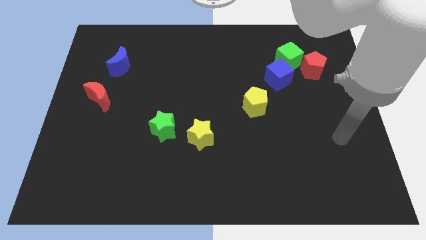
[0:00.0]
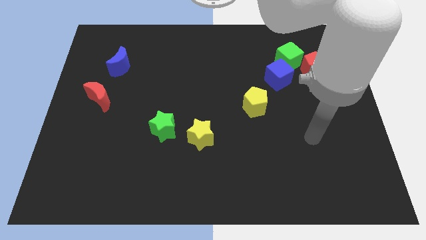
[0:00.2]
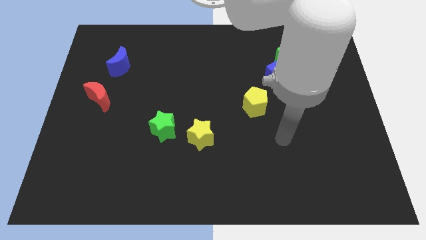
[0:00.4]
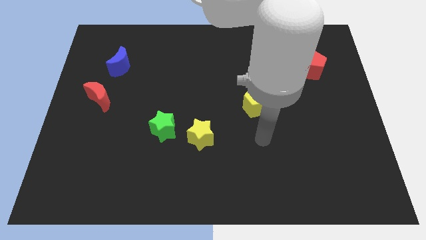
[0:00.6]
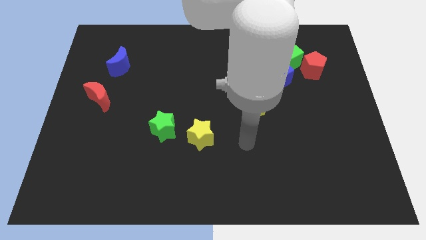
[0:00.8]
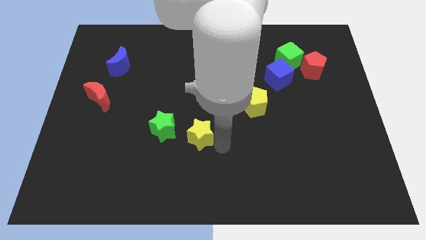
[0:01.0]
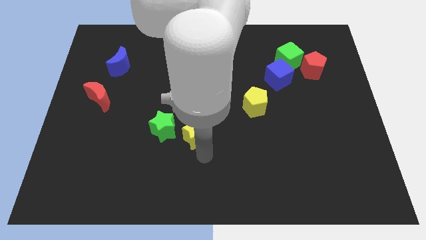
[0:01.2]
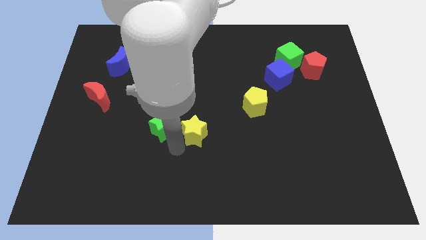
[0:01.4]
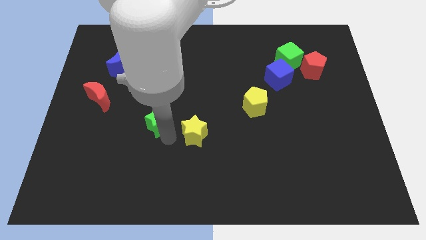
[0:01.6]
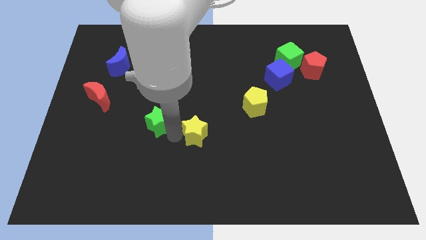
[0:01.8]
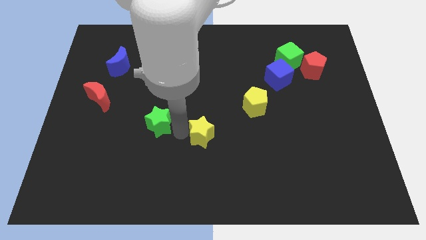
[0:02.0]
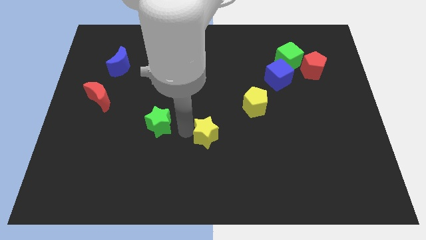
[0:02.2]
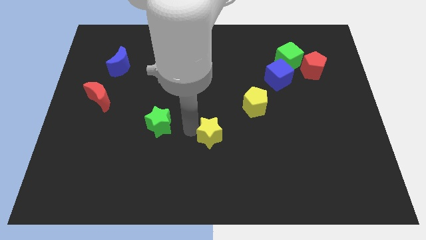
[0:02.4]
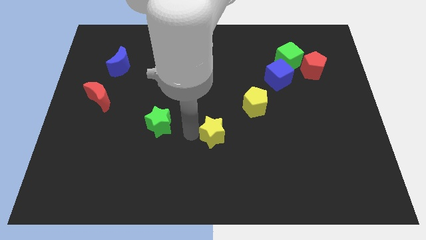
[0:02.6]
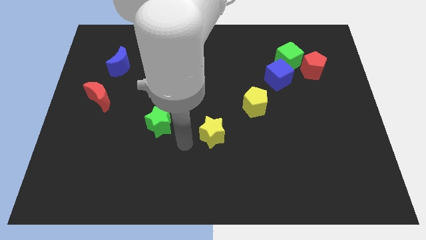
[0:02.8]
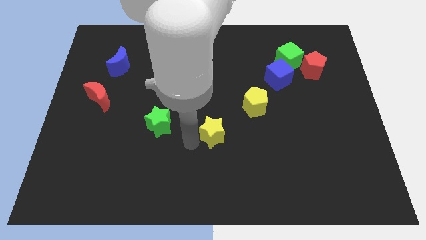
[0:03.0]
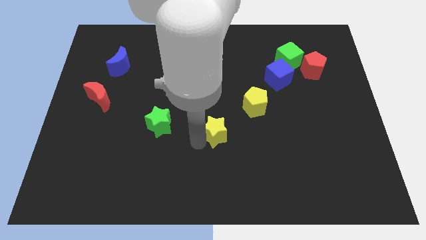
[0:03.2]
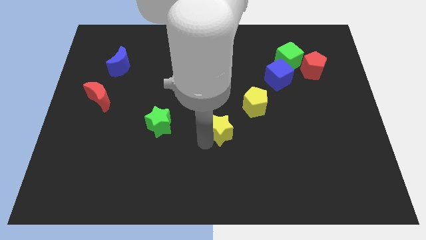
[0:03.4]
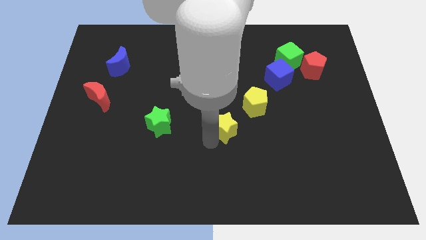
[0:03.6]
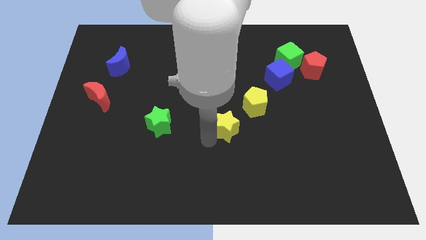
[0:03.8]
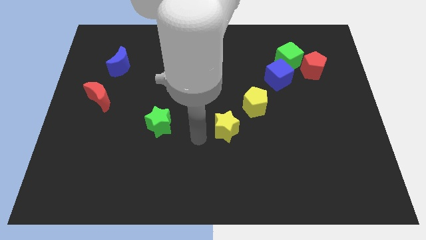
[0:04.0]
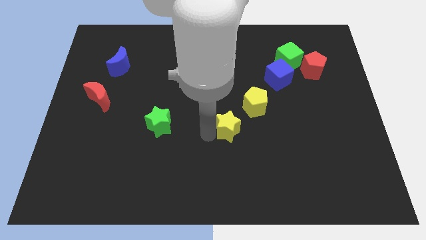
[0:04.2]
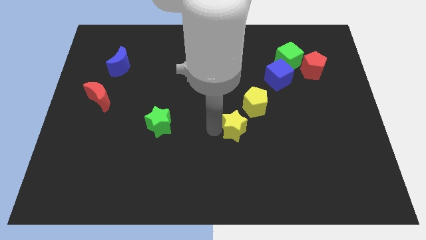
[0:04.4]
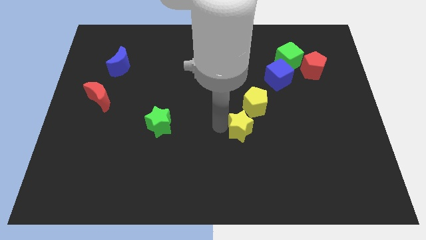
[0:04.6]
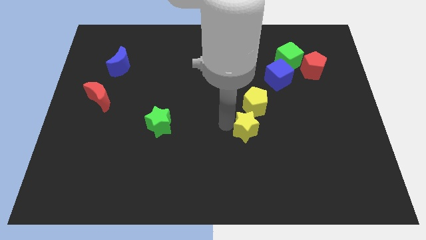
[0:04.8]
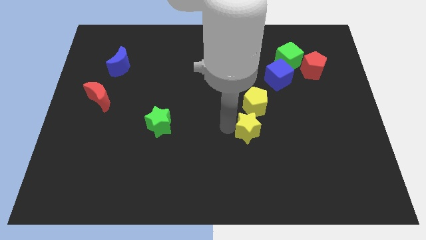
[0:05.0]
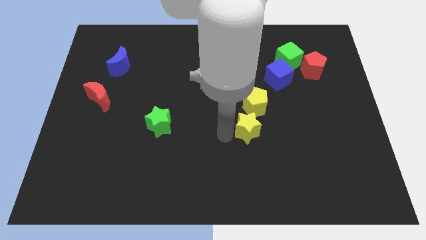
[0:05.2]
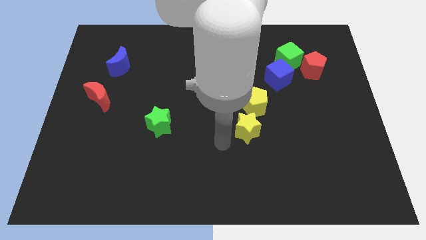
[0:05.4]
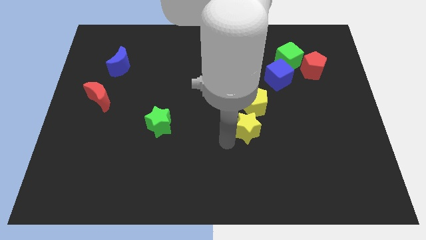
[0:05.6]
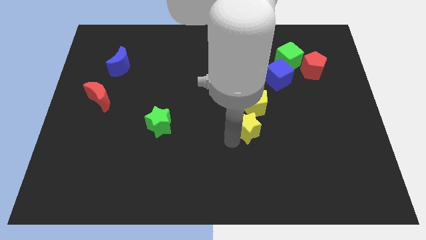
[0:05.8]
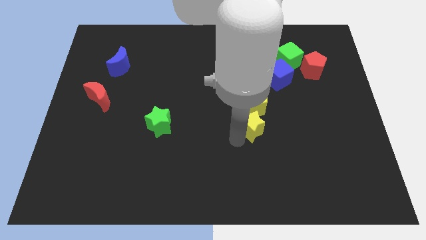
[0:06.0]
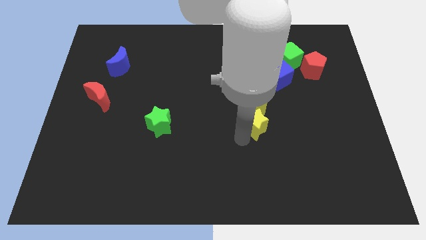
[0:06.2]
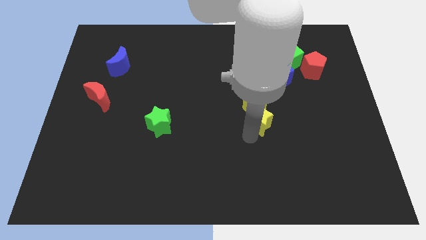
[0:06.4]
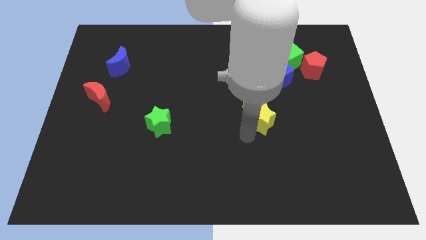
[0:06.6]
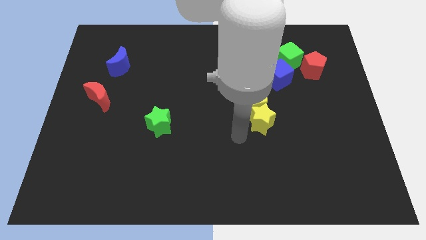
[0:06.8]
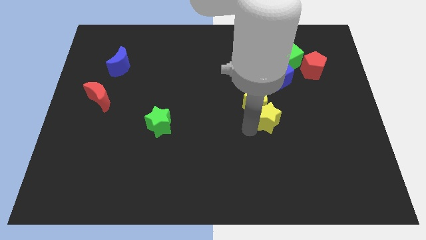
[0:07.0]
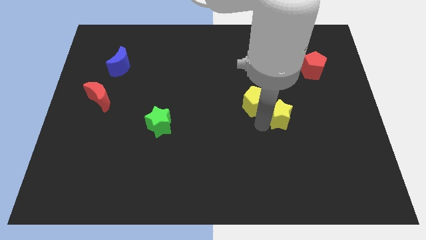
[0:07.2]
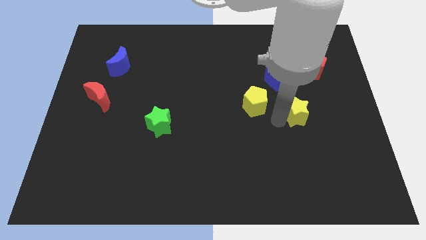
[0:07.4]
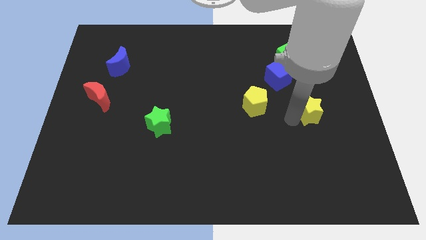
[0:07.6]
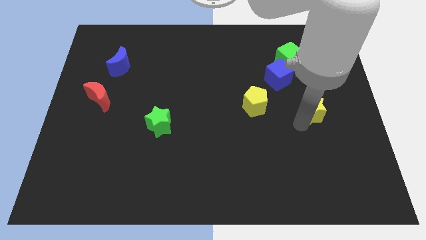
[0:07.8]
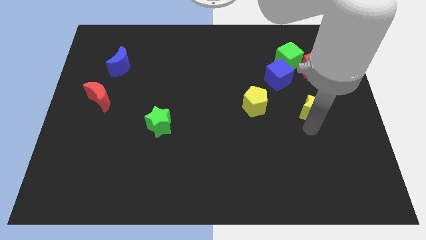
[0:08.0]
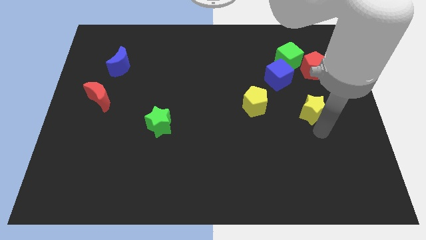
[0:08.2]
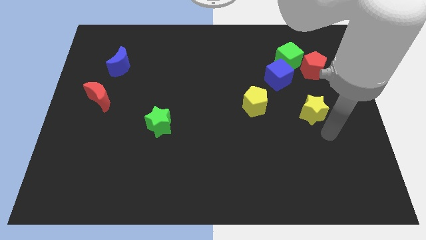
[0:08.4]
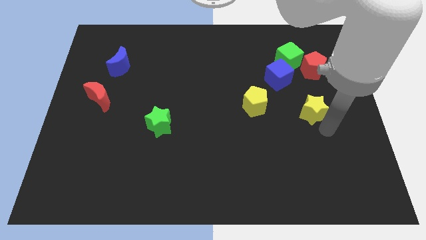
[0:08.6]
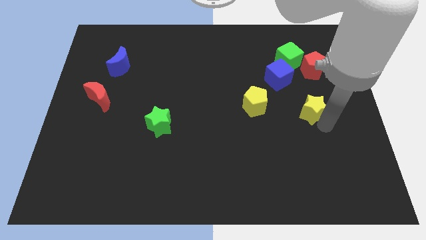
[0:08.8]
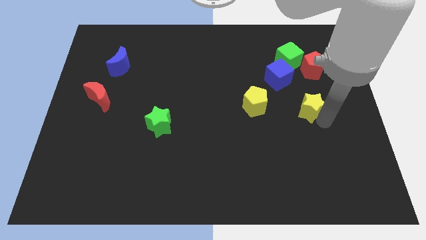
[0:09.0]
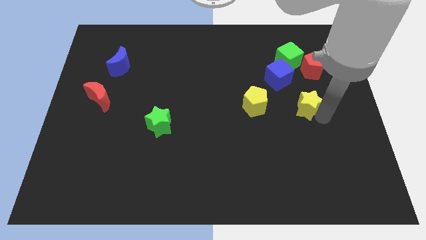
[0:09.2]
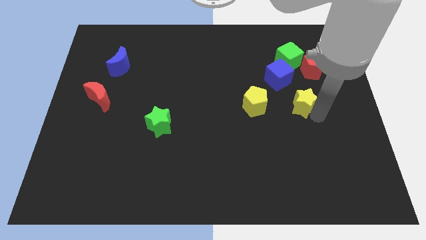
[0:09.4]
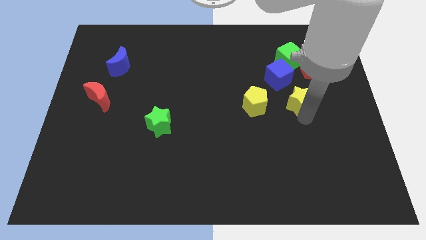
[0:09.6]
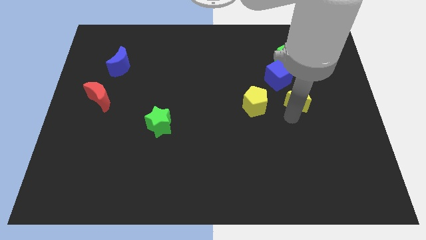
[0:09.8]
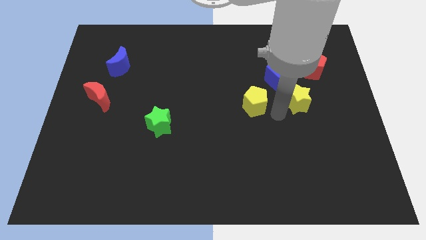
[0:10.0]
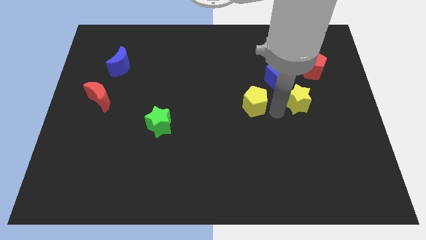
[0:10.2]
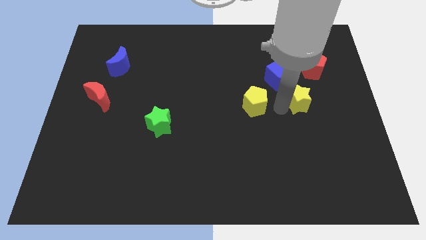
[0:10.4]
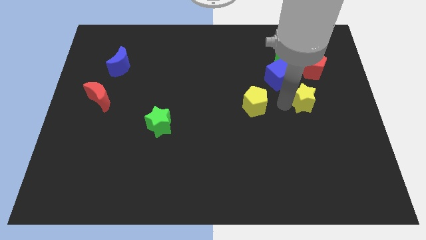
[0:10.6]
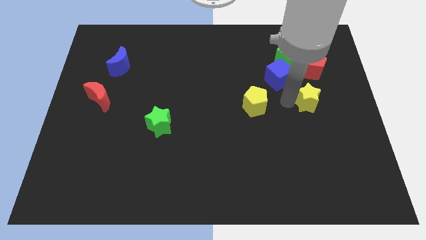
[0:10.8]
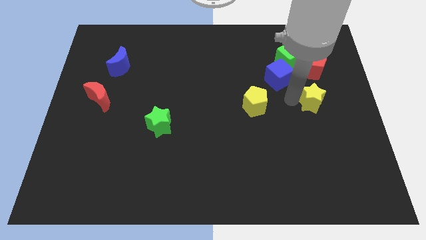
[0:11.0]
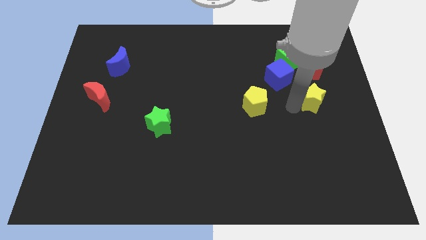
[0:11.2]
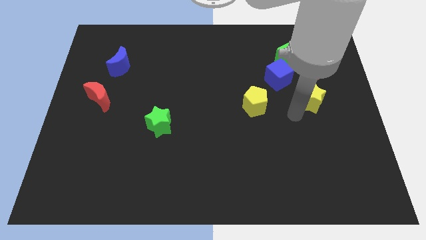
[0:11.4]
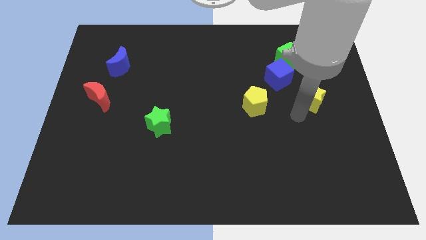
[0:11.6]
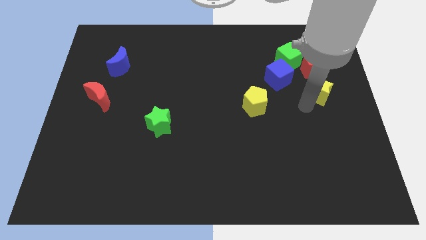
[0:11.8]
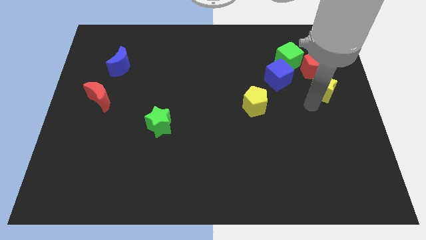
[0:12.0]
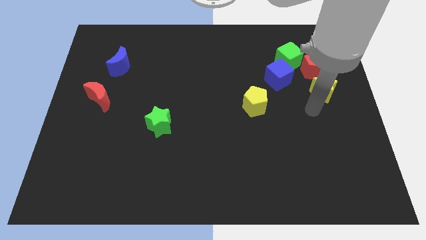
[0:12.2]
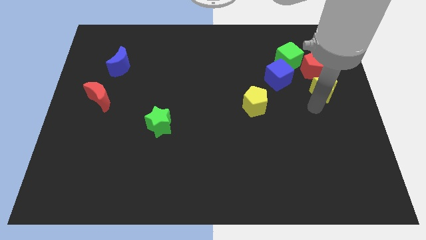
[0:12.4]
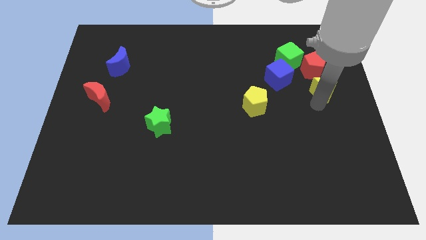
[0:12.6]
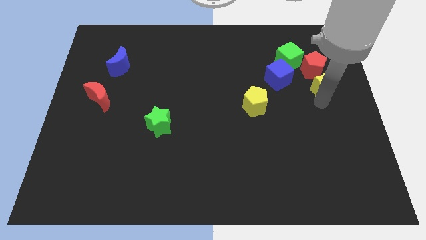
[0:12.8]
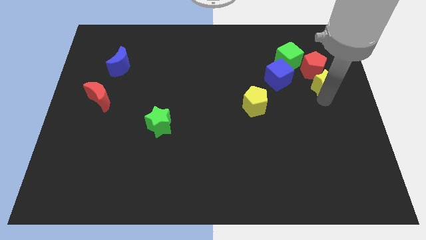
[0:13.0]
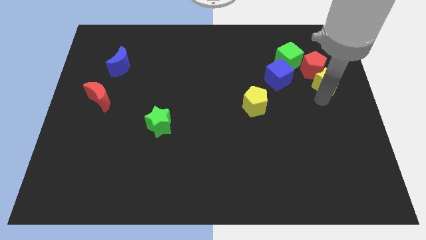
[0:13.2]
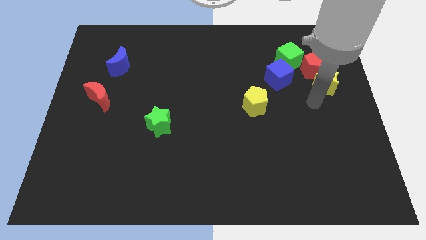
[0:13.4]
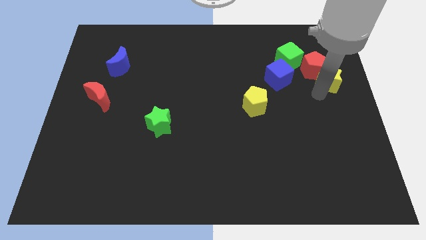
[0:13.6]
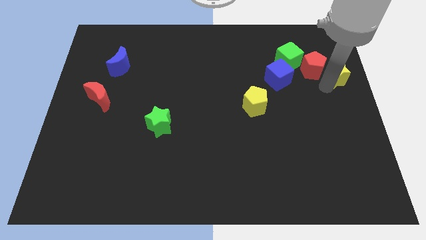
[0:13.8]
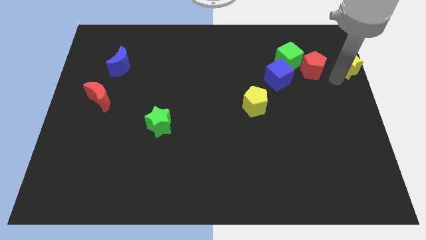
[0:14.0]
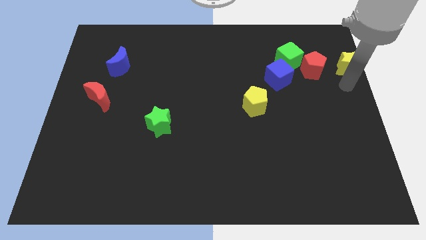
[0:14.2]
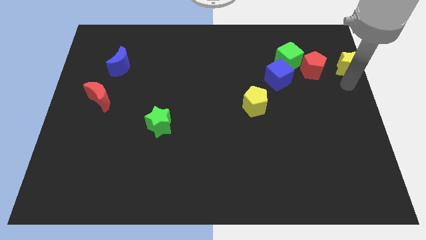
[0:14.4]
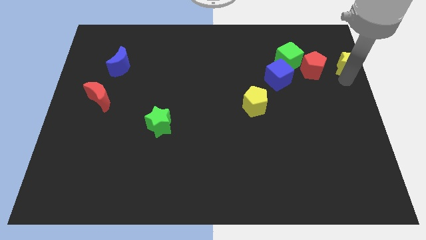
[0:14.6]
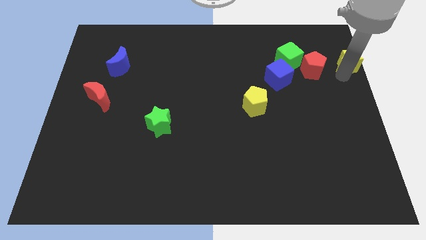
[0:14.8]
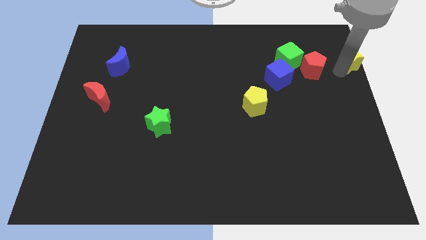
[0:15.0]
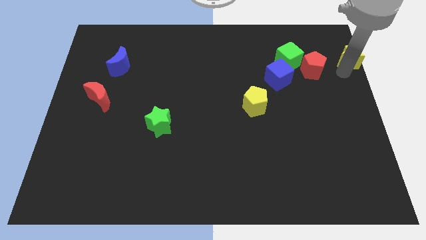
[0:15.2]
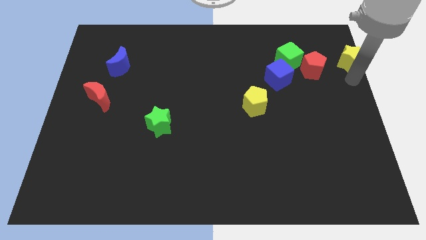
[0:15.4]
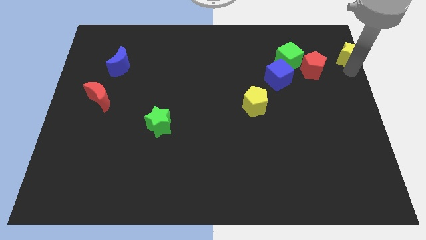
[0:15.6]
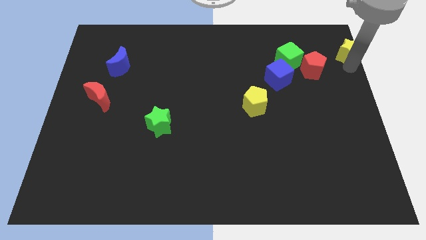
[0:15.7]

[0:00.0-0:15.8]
move the yellow star to the top right corner
